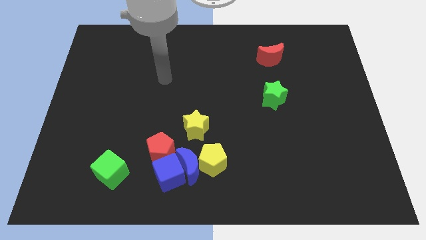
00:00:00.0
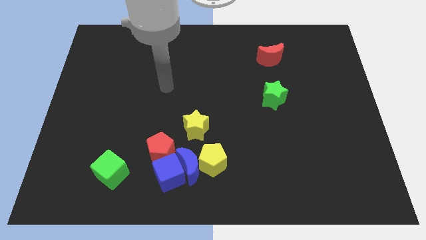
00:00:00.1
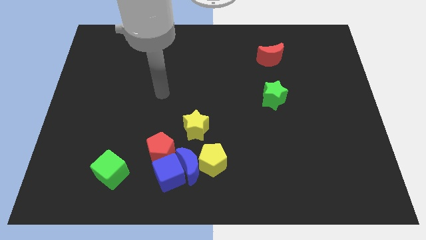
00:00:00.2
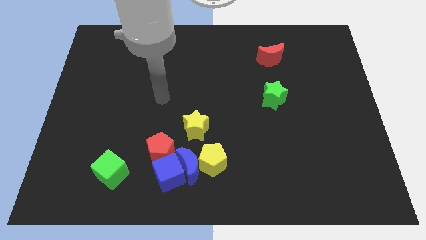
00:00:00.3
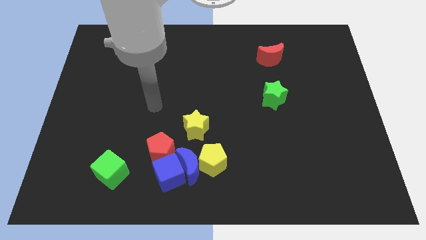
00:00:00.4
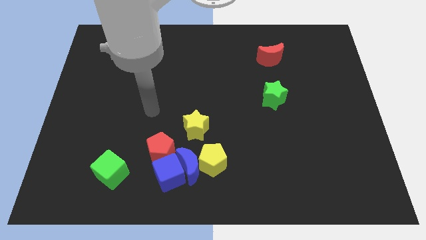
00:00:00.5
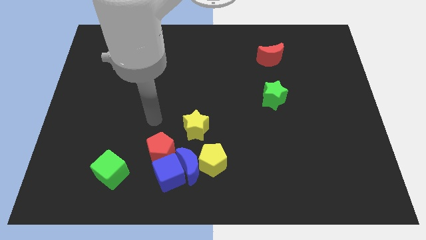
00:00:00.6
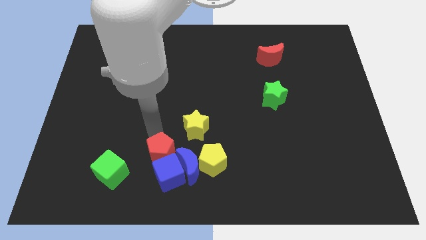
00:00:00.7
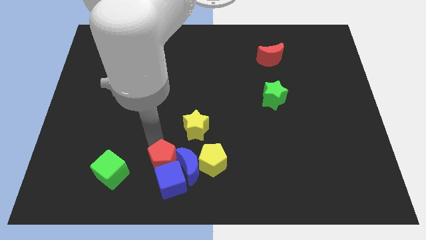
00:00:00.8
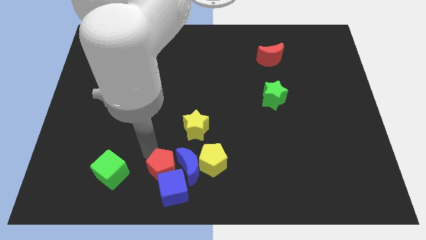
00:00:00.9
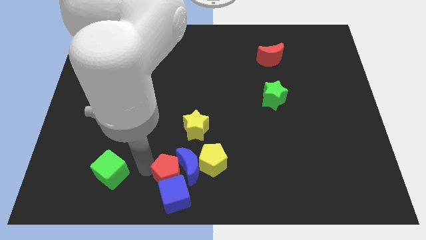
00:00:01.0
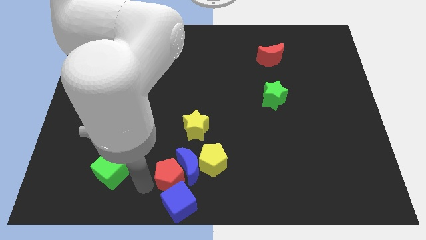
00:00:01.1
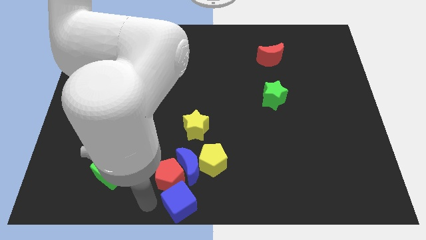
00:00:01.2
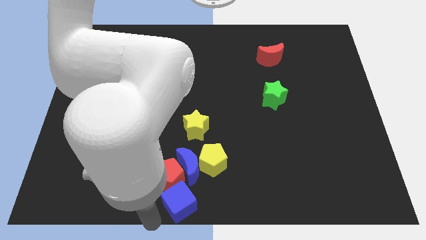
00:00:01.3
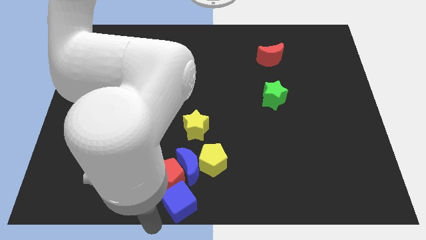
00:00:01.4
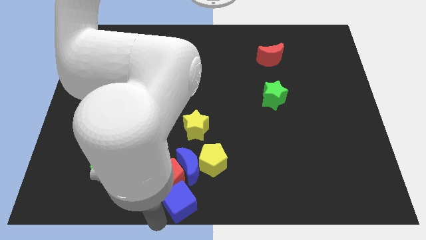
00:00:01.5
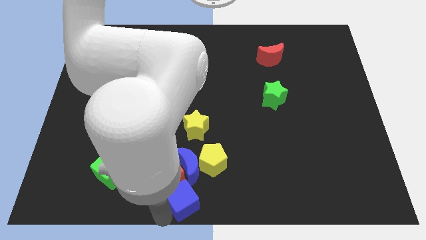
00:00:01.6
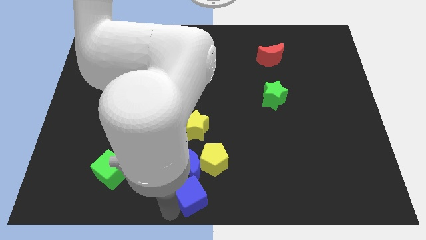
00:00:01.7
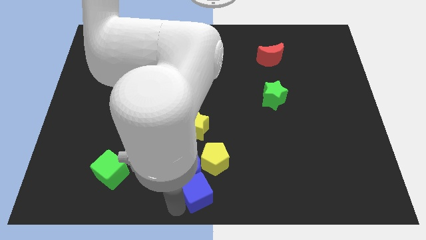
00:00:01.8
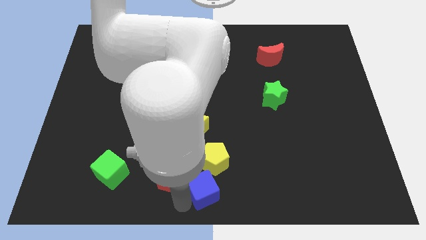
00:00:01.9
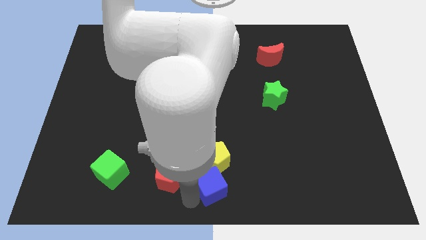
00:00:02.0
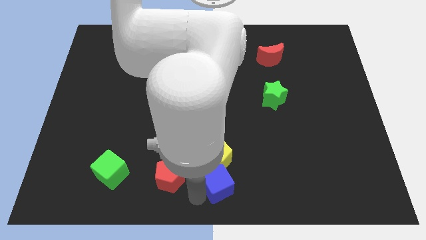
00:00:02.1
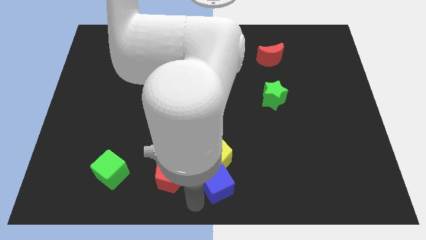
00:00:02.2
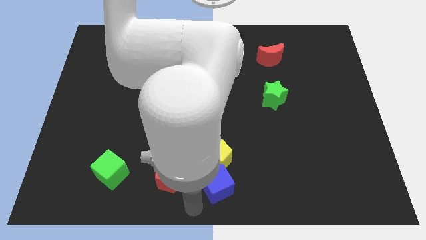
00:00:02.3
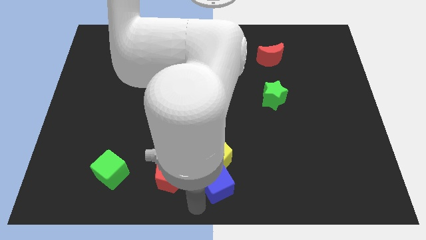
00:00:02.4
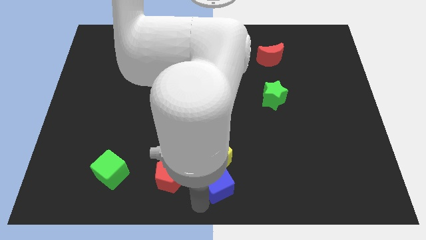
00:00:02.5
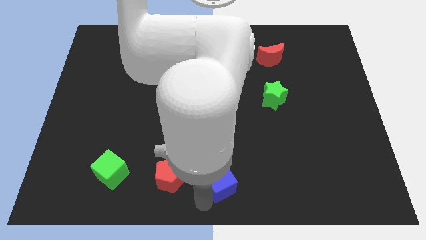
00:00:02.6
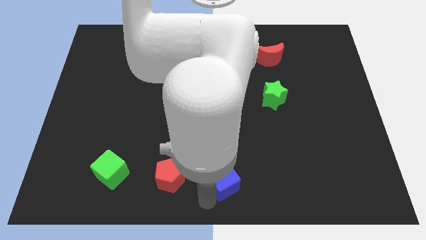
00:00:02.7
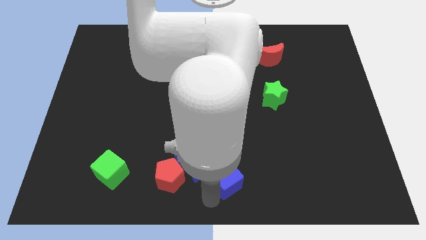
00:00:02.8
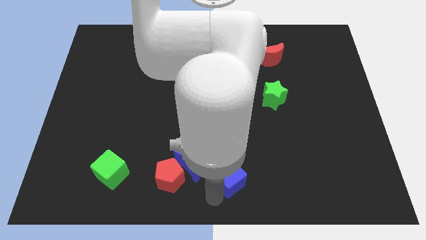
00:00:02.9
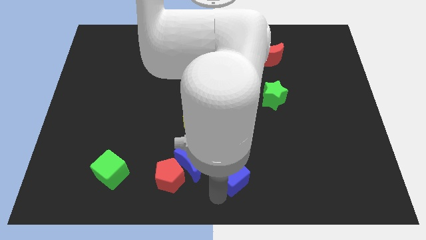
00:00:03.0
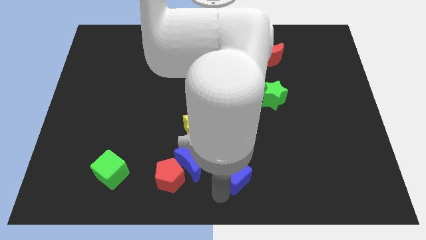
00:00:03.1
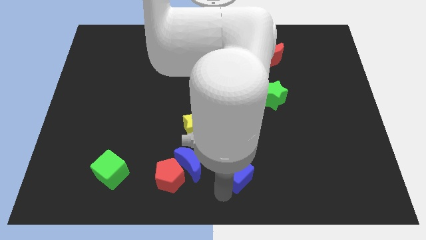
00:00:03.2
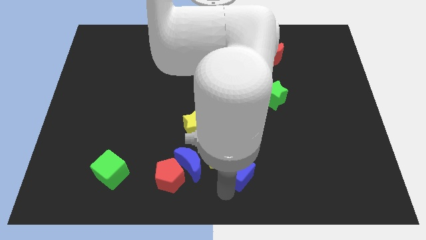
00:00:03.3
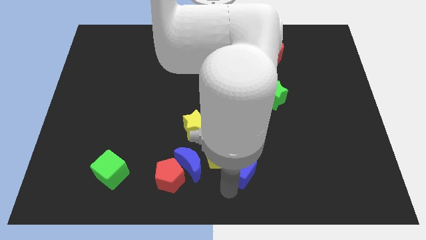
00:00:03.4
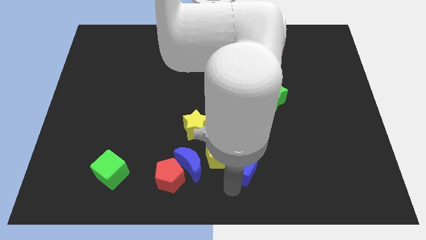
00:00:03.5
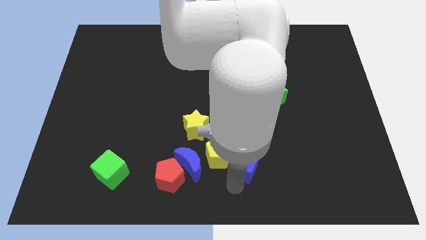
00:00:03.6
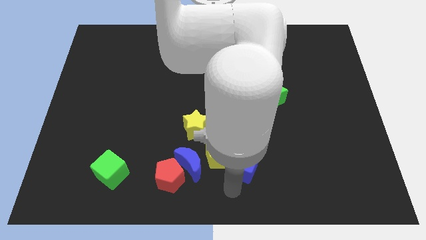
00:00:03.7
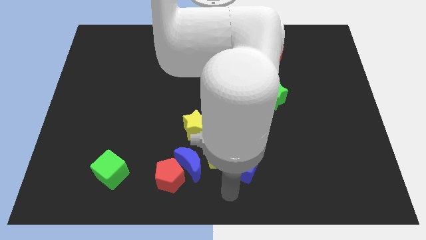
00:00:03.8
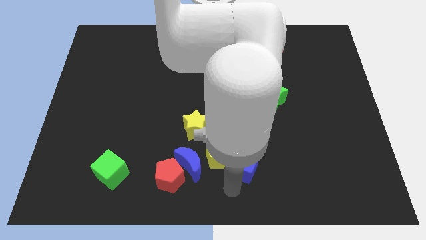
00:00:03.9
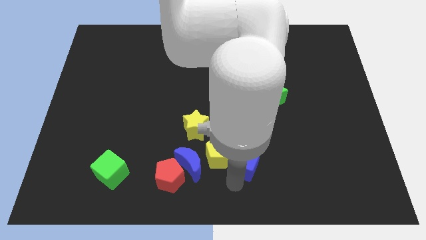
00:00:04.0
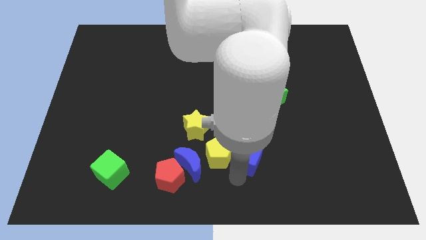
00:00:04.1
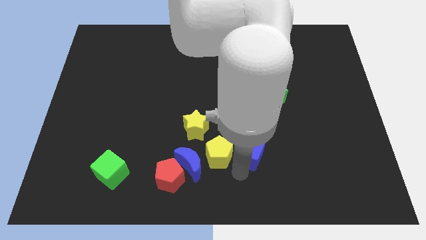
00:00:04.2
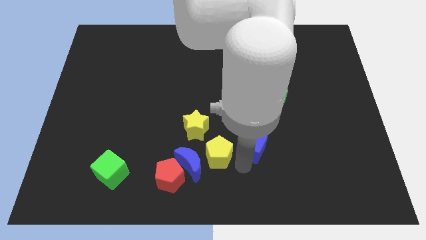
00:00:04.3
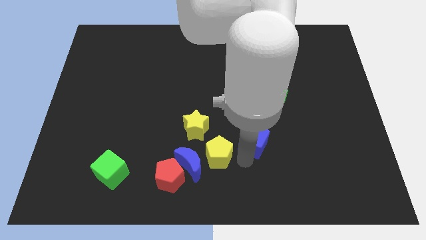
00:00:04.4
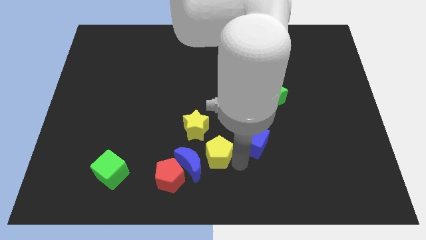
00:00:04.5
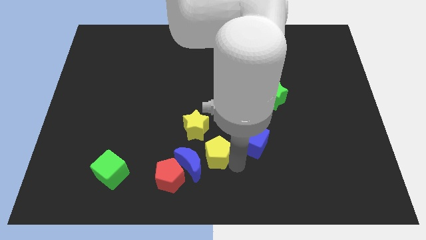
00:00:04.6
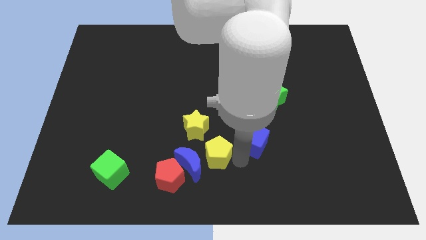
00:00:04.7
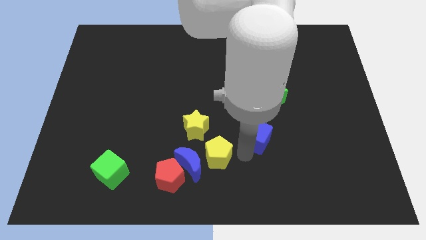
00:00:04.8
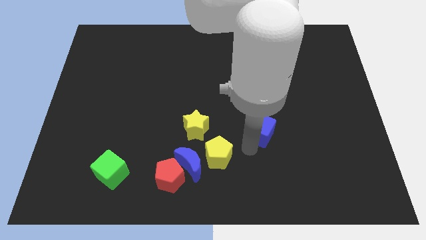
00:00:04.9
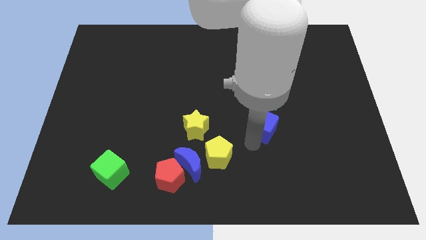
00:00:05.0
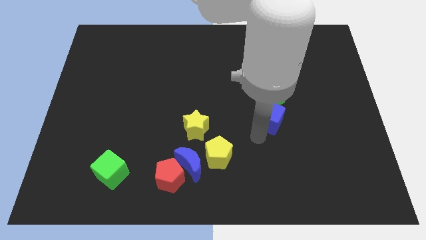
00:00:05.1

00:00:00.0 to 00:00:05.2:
put the blue cube to the green star

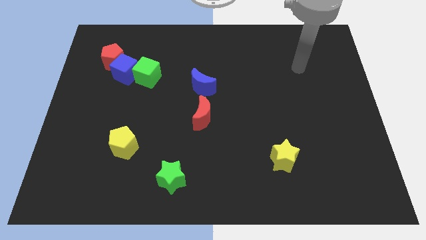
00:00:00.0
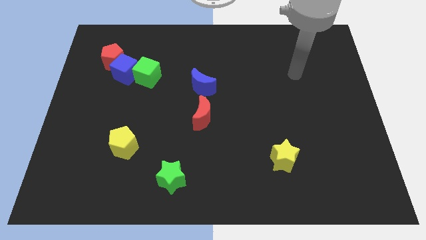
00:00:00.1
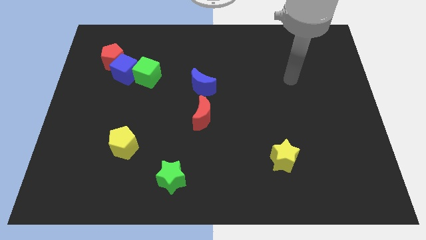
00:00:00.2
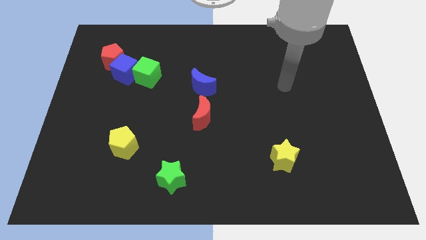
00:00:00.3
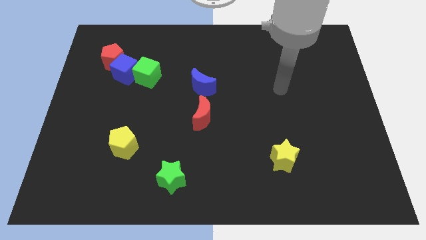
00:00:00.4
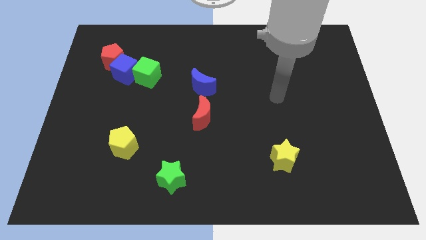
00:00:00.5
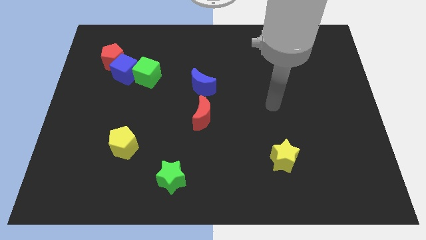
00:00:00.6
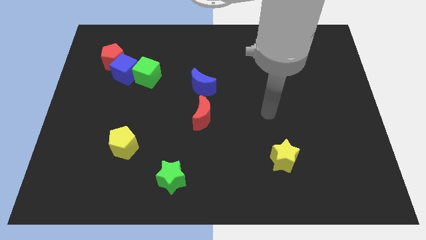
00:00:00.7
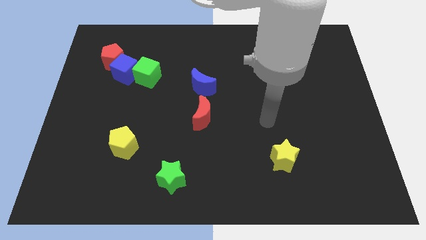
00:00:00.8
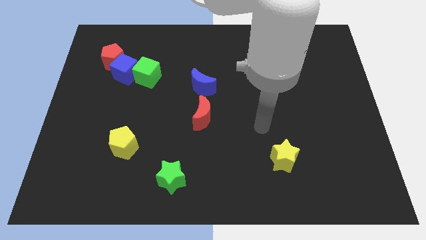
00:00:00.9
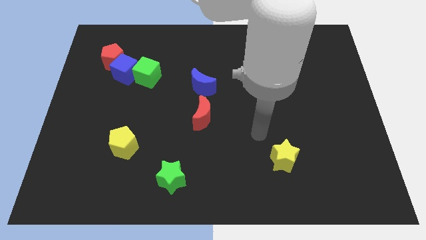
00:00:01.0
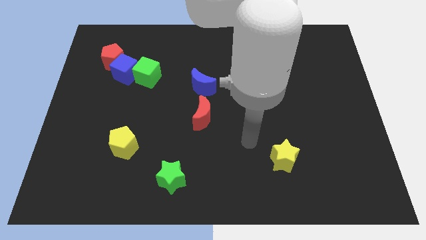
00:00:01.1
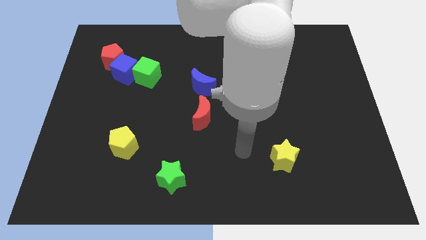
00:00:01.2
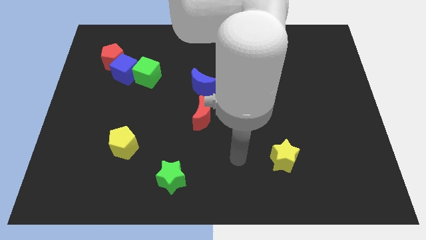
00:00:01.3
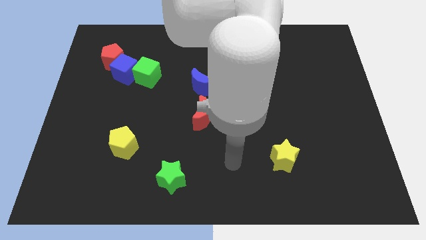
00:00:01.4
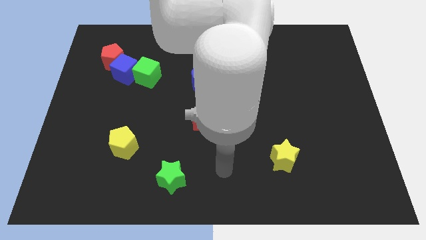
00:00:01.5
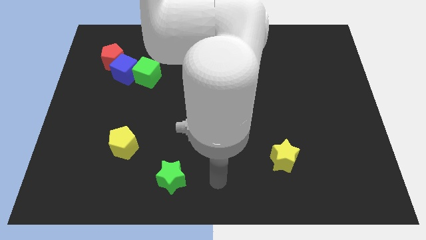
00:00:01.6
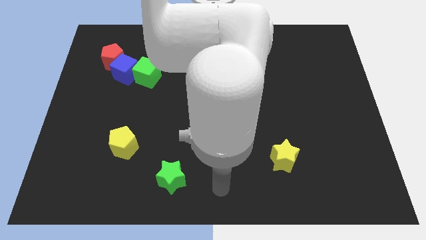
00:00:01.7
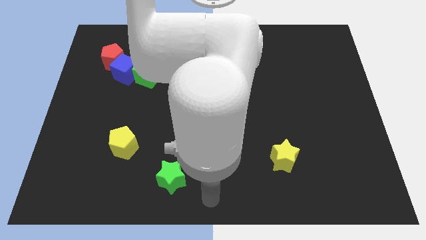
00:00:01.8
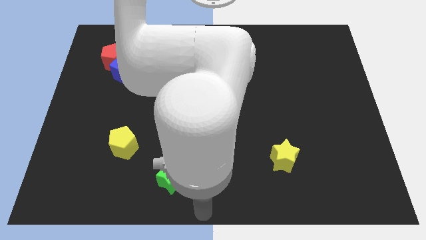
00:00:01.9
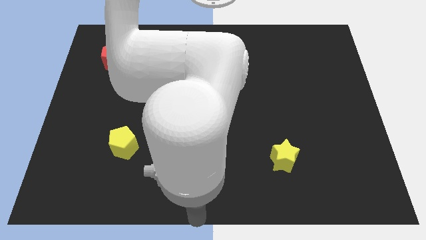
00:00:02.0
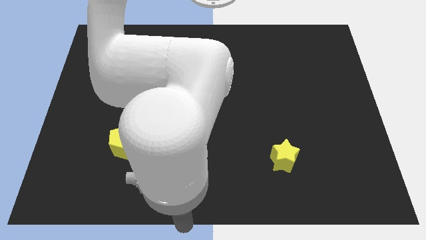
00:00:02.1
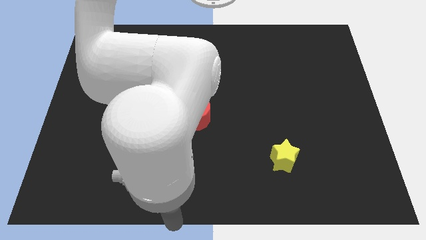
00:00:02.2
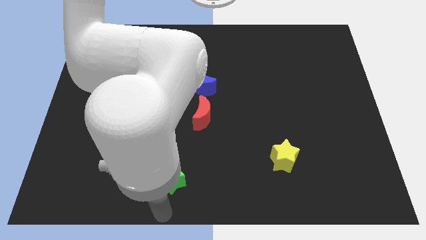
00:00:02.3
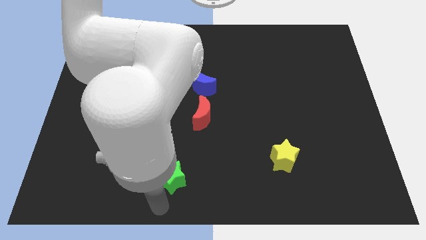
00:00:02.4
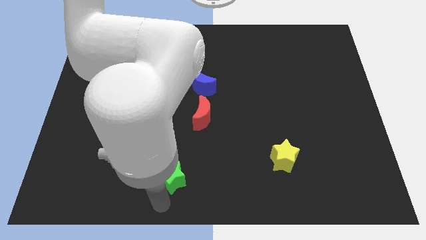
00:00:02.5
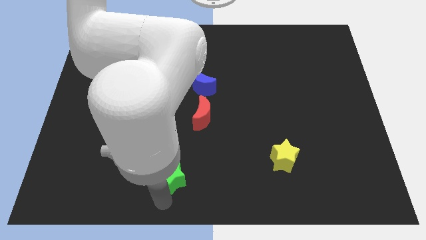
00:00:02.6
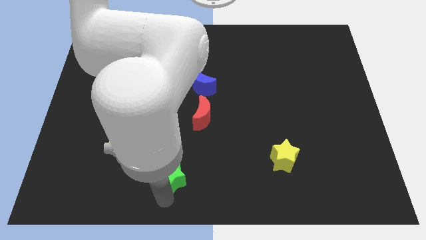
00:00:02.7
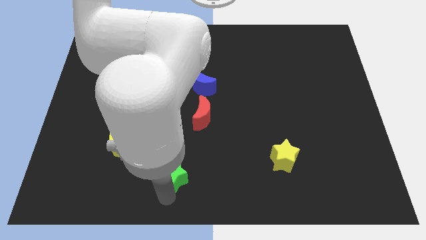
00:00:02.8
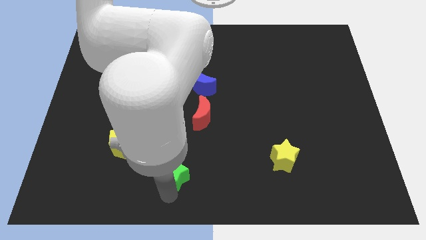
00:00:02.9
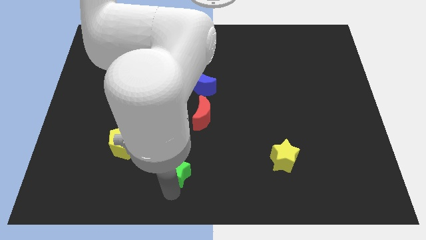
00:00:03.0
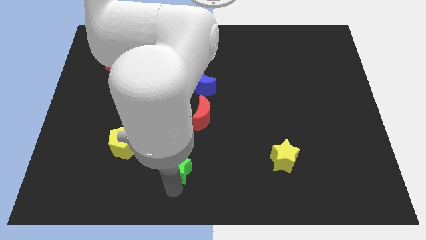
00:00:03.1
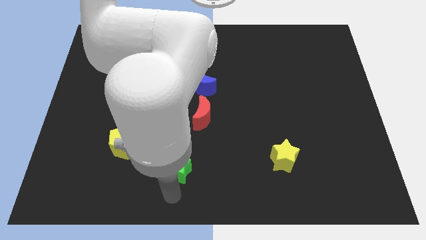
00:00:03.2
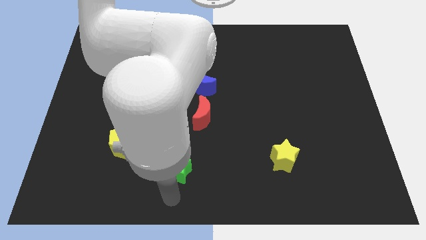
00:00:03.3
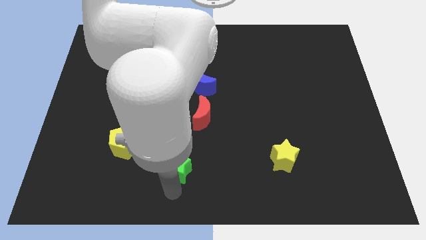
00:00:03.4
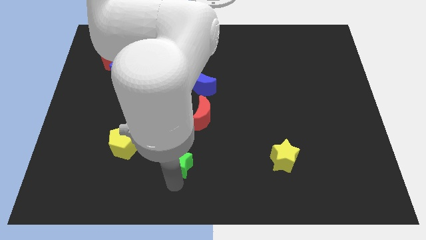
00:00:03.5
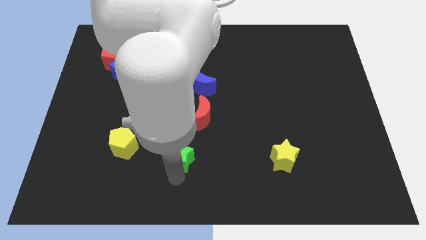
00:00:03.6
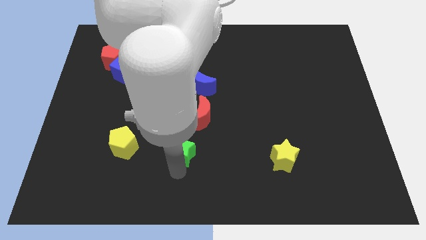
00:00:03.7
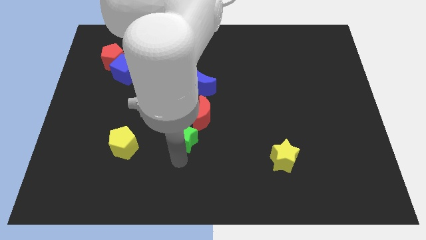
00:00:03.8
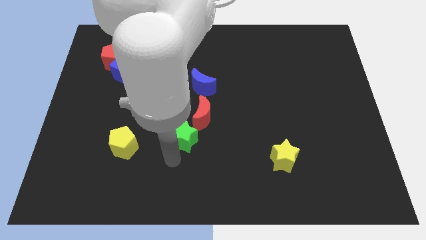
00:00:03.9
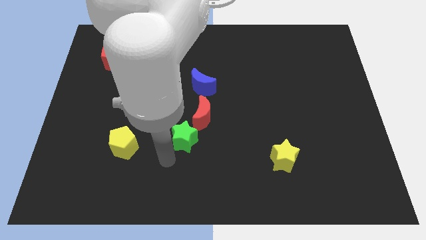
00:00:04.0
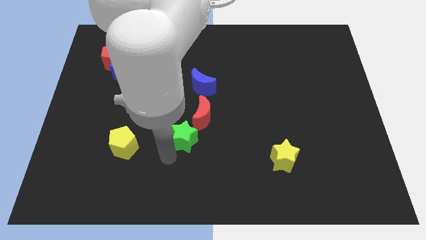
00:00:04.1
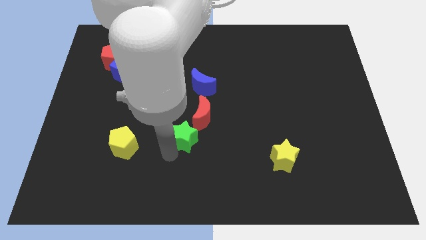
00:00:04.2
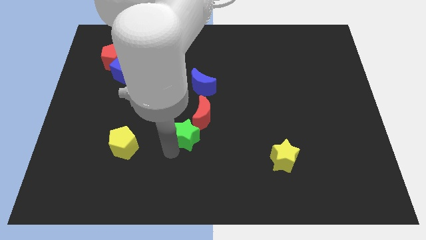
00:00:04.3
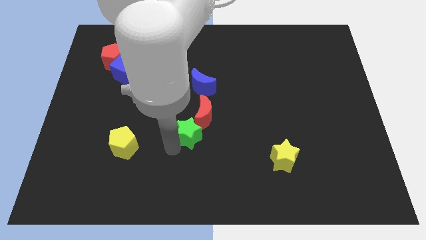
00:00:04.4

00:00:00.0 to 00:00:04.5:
move the green star close to the red moon
